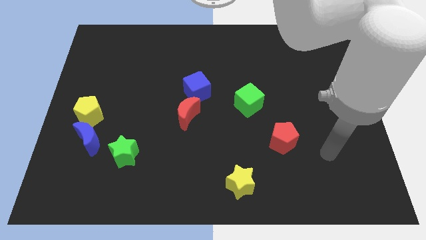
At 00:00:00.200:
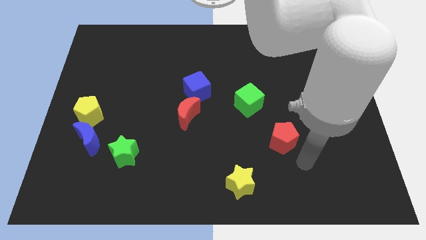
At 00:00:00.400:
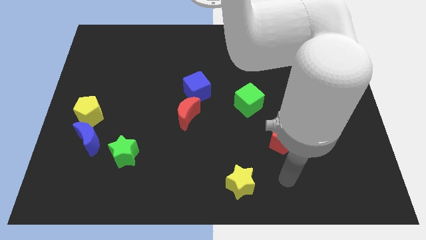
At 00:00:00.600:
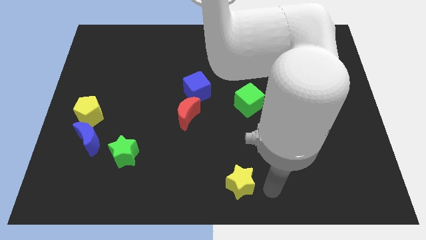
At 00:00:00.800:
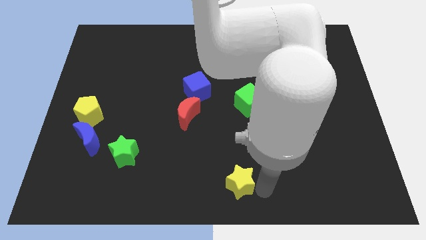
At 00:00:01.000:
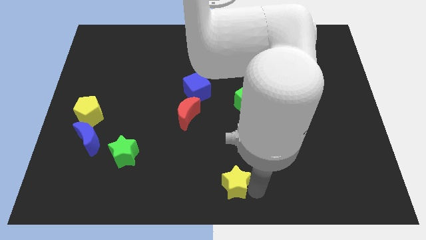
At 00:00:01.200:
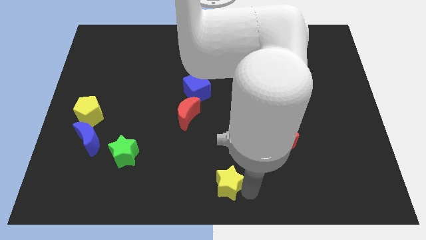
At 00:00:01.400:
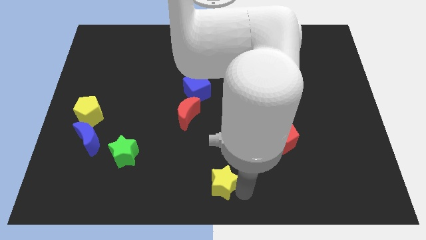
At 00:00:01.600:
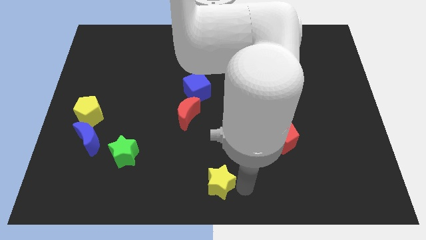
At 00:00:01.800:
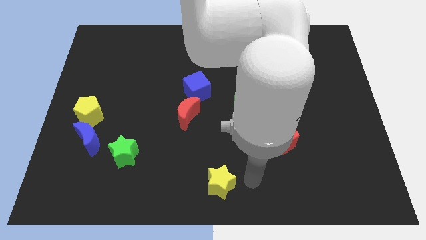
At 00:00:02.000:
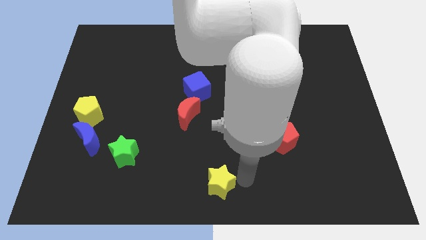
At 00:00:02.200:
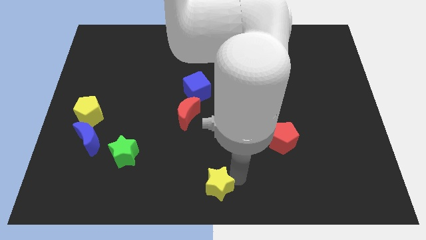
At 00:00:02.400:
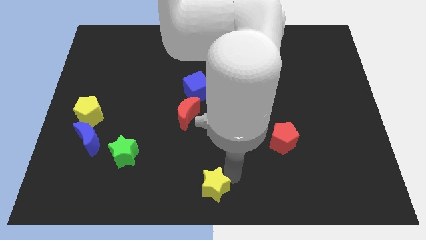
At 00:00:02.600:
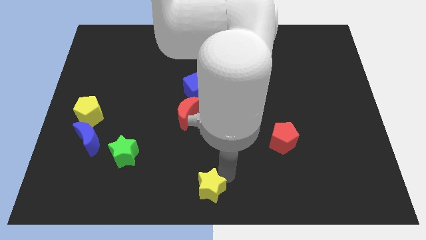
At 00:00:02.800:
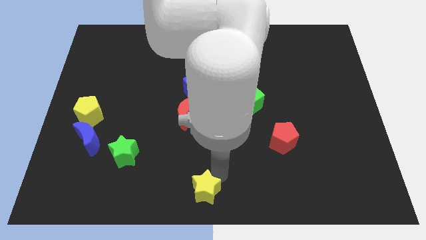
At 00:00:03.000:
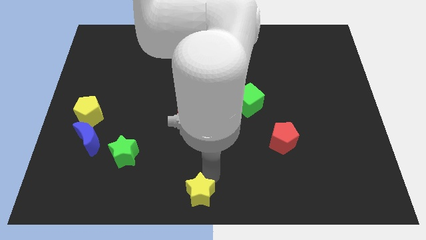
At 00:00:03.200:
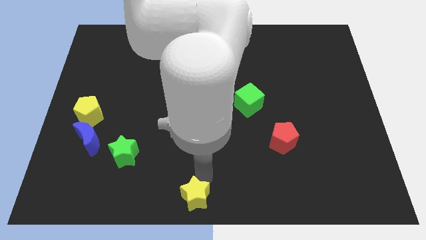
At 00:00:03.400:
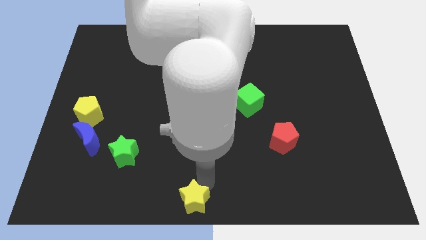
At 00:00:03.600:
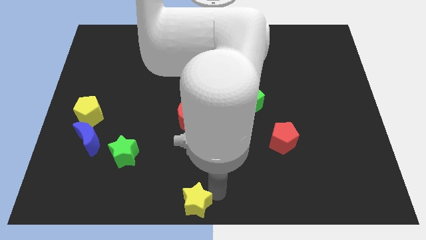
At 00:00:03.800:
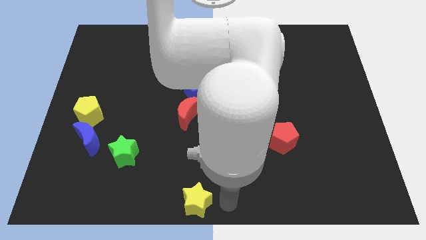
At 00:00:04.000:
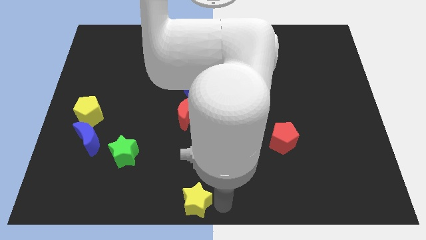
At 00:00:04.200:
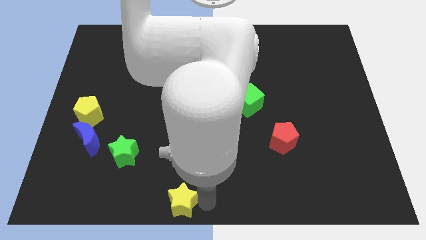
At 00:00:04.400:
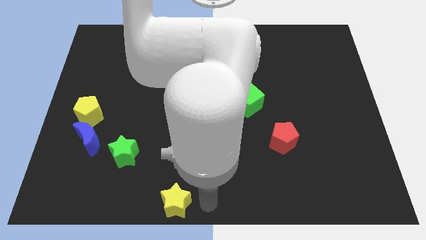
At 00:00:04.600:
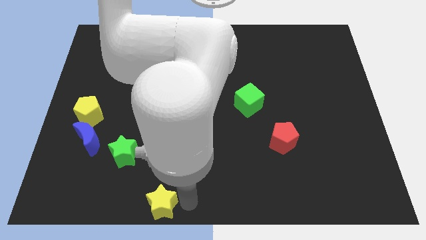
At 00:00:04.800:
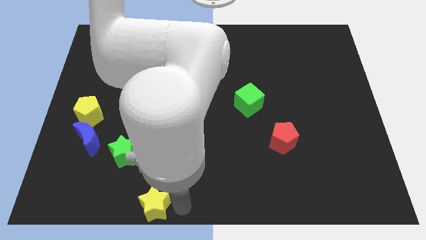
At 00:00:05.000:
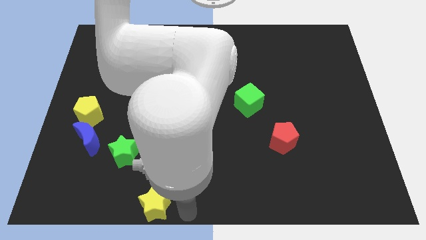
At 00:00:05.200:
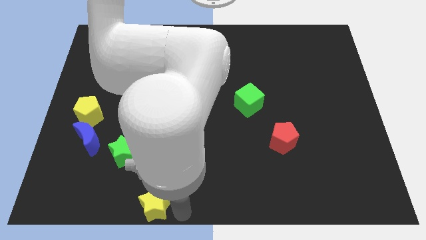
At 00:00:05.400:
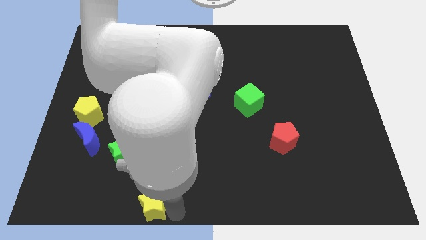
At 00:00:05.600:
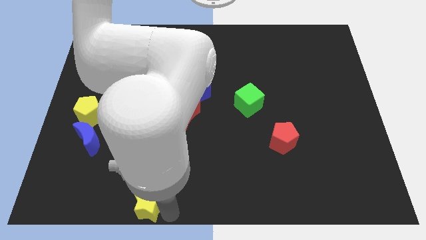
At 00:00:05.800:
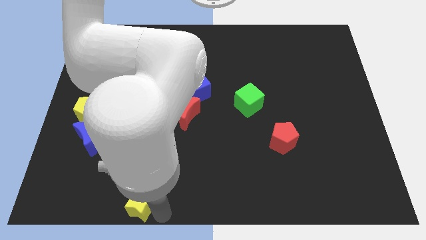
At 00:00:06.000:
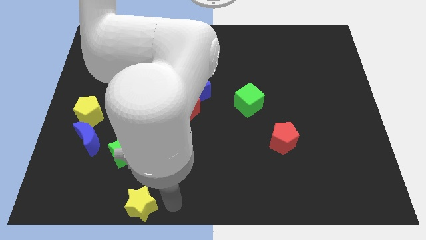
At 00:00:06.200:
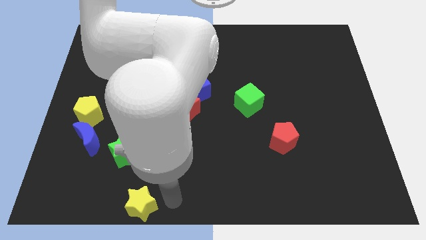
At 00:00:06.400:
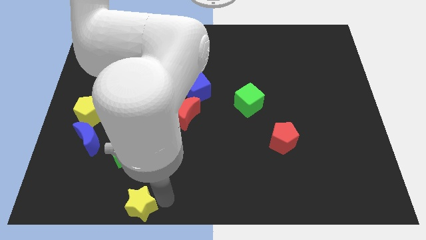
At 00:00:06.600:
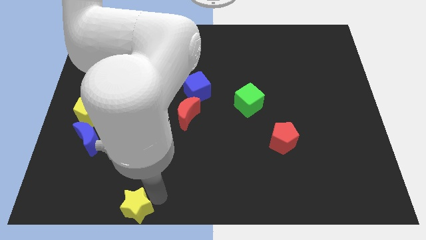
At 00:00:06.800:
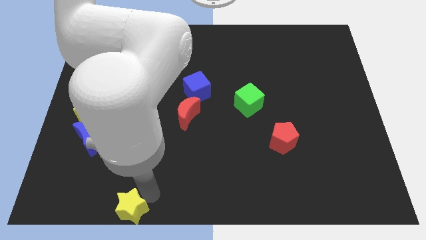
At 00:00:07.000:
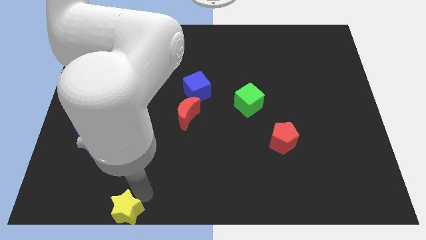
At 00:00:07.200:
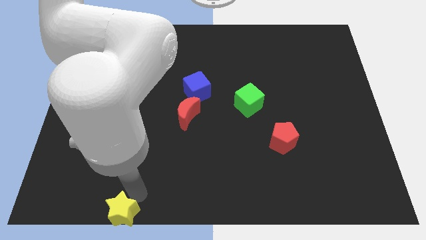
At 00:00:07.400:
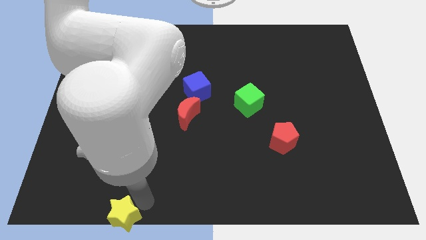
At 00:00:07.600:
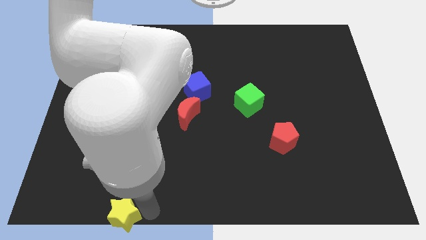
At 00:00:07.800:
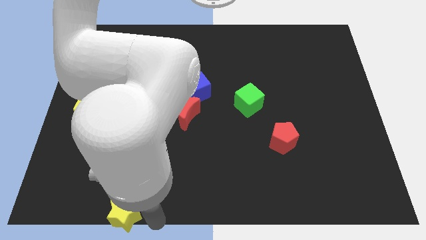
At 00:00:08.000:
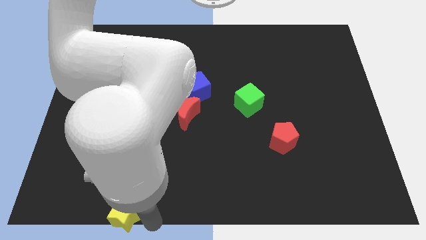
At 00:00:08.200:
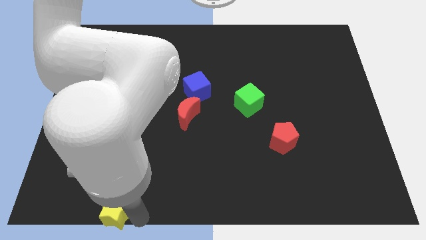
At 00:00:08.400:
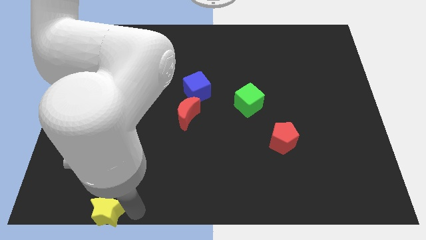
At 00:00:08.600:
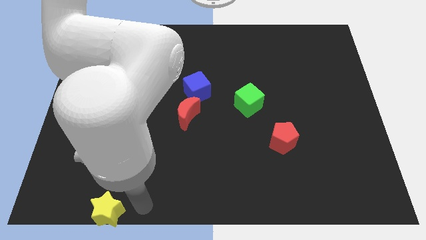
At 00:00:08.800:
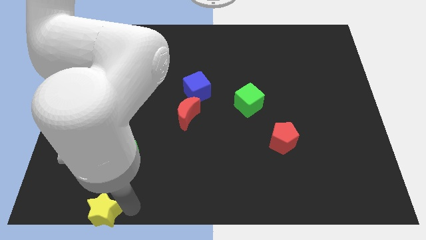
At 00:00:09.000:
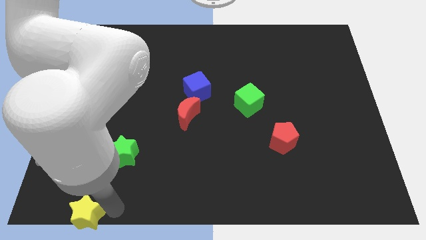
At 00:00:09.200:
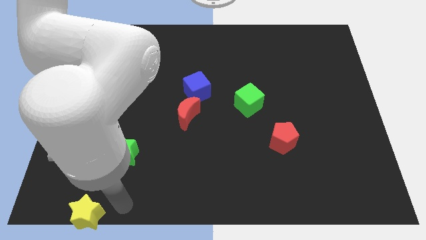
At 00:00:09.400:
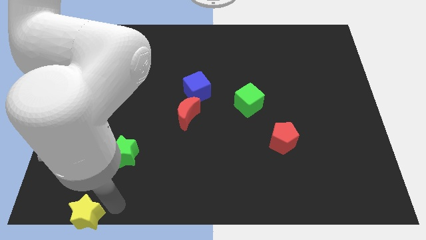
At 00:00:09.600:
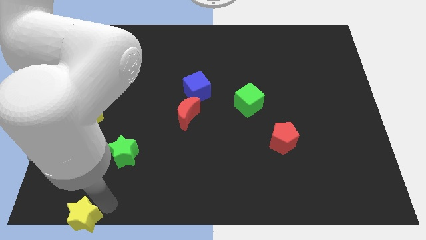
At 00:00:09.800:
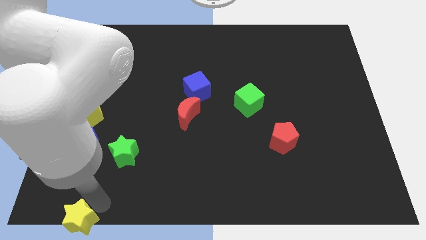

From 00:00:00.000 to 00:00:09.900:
move the yellow star to the lower left corner
